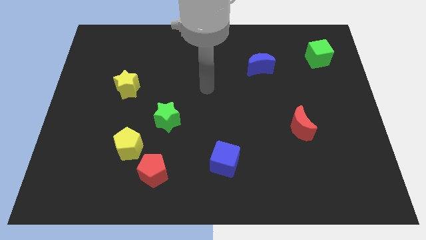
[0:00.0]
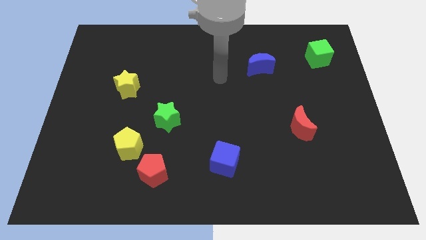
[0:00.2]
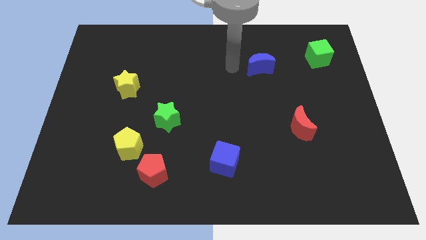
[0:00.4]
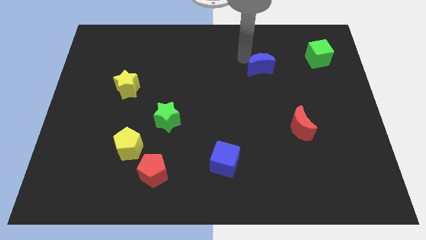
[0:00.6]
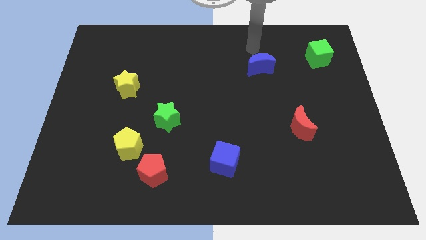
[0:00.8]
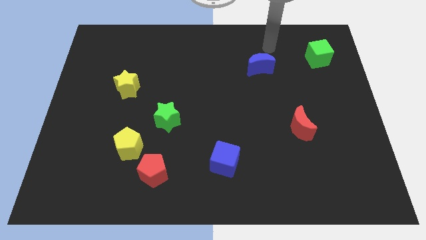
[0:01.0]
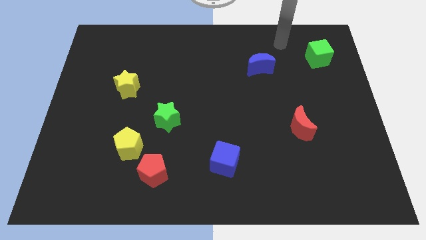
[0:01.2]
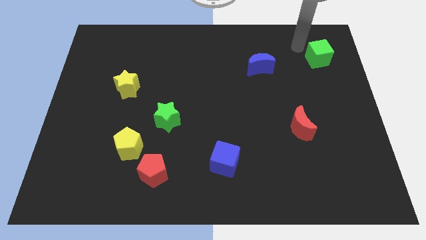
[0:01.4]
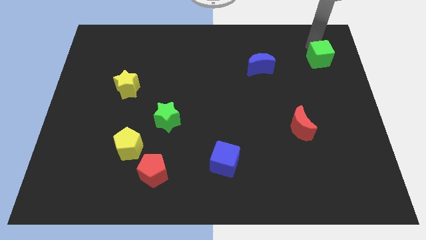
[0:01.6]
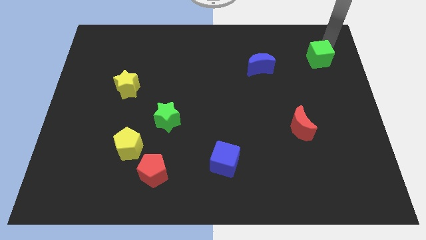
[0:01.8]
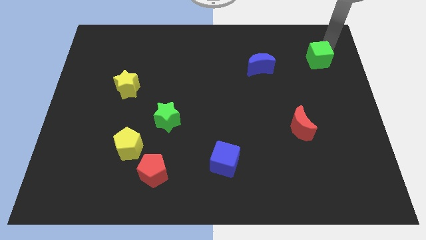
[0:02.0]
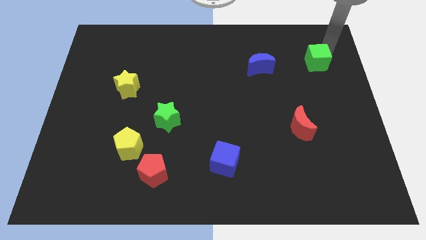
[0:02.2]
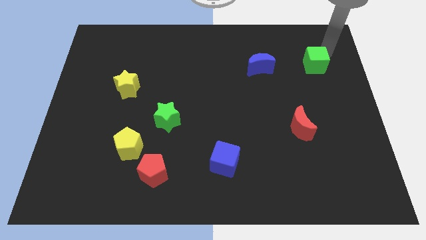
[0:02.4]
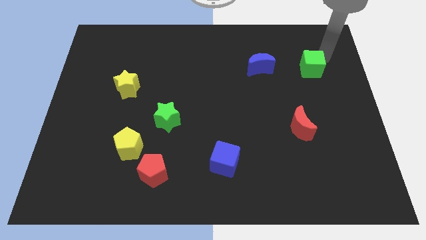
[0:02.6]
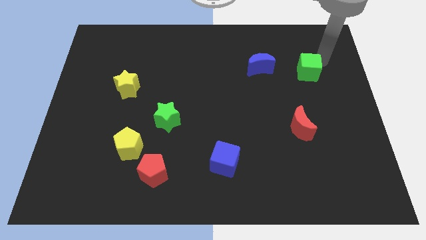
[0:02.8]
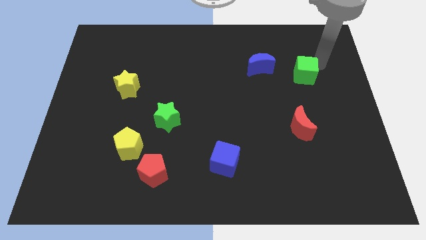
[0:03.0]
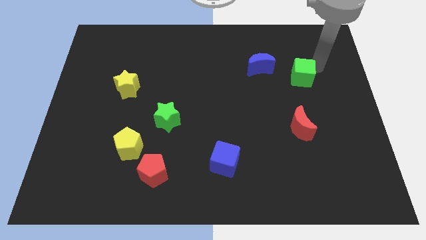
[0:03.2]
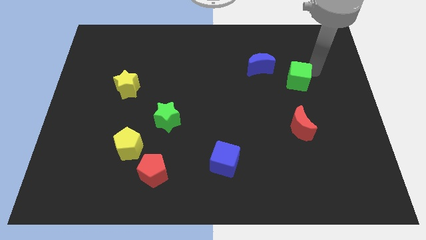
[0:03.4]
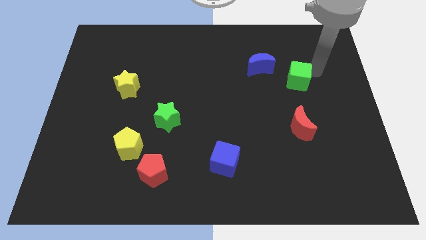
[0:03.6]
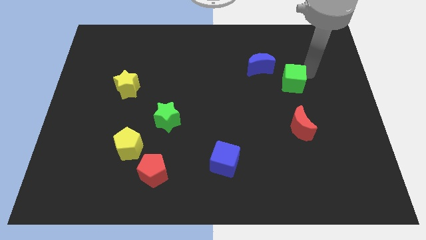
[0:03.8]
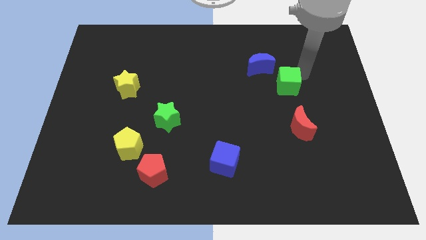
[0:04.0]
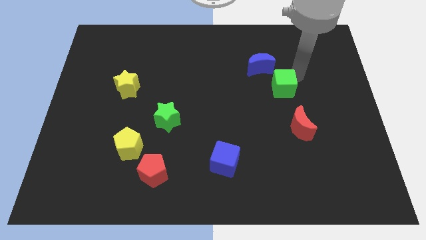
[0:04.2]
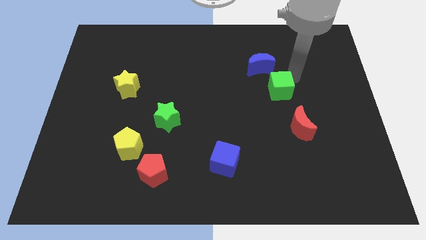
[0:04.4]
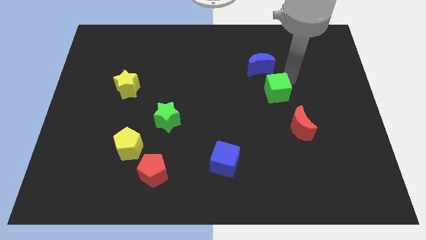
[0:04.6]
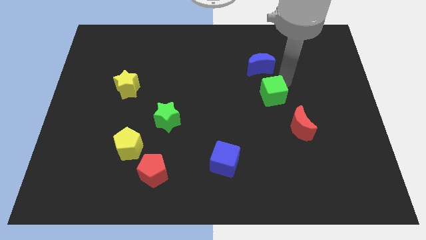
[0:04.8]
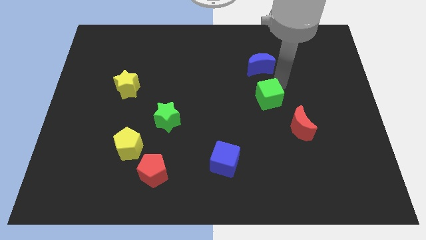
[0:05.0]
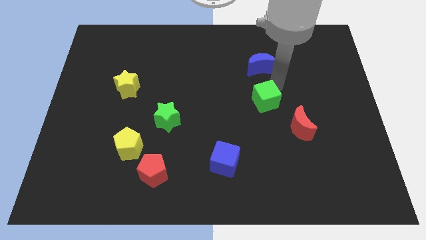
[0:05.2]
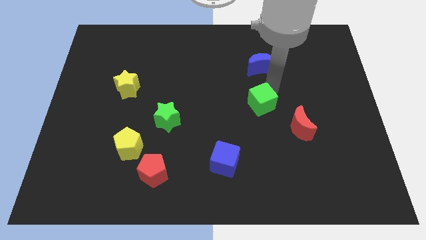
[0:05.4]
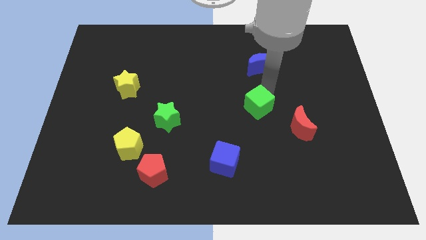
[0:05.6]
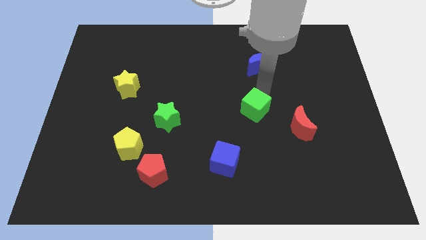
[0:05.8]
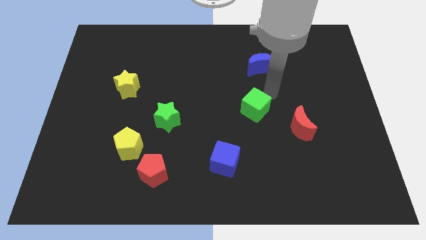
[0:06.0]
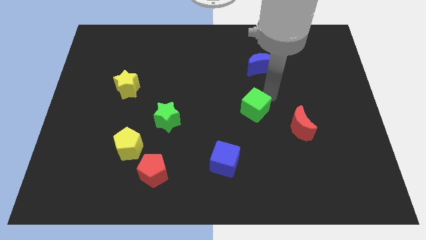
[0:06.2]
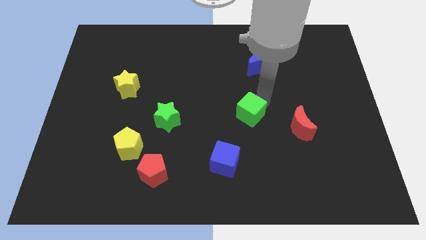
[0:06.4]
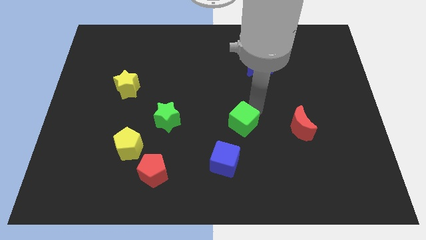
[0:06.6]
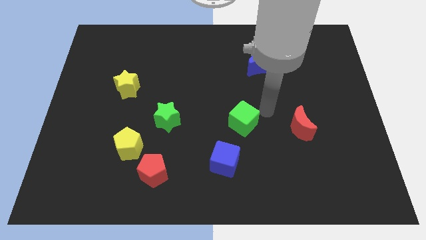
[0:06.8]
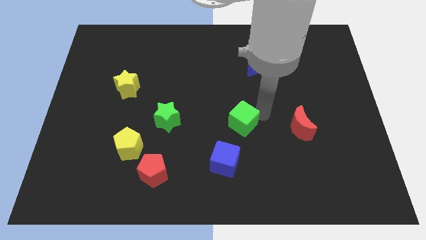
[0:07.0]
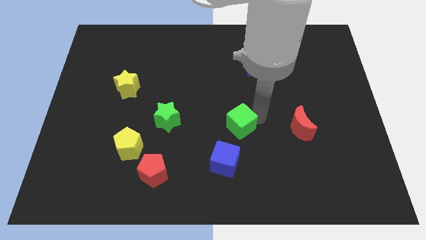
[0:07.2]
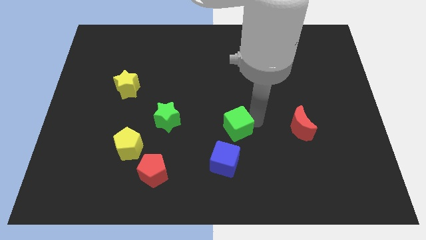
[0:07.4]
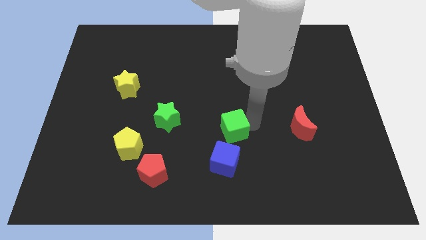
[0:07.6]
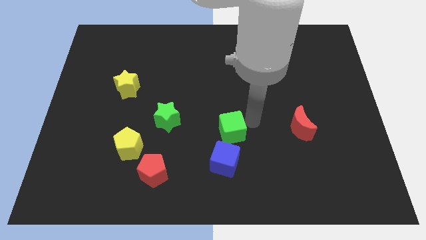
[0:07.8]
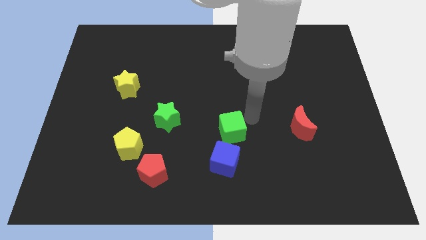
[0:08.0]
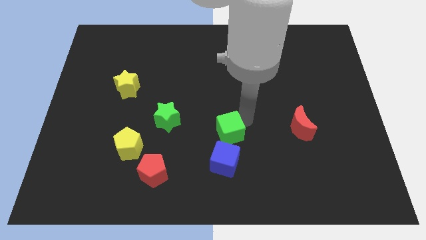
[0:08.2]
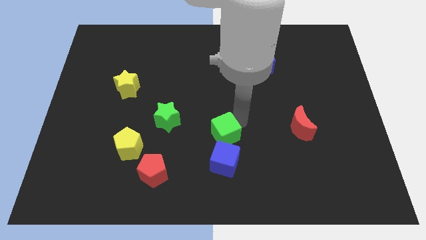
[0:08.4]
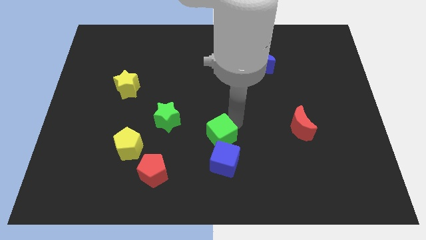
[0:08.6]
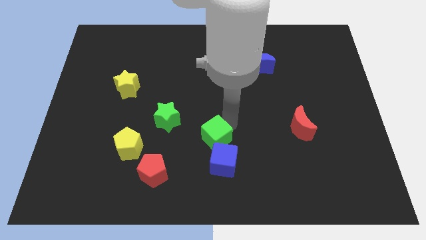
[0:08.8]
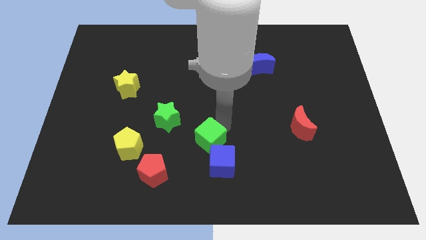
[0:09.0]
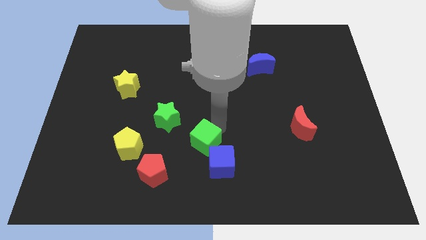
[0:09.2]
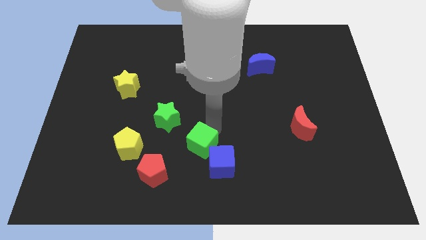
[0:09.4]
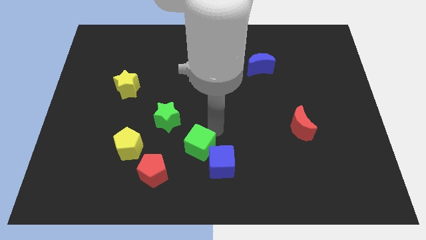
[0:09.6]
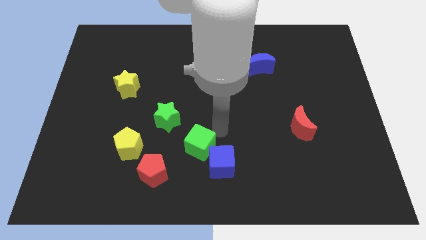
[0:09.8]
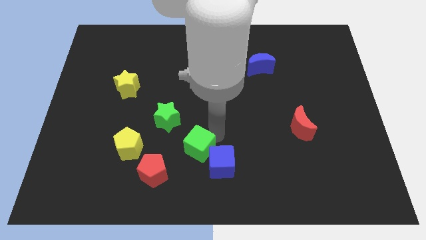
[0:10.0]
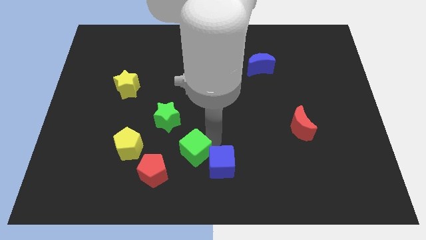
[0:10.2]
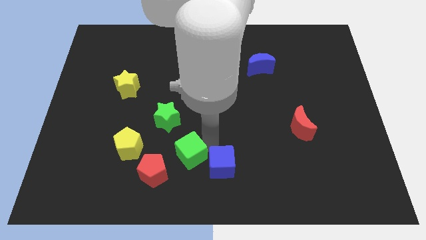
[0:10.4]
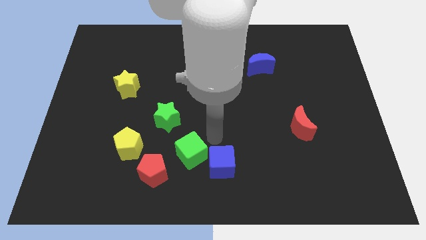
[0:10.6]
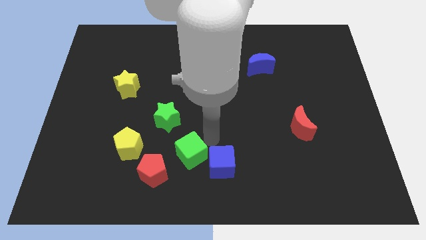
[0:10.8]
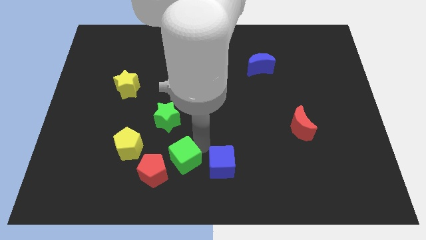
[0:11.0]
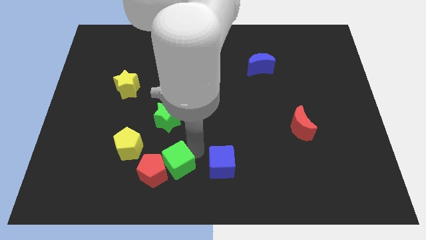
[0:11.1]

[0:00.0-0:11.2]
move the green cube next to the red pentagon

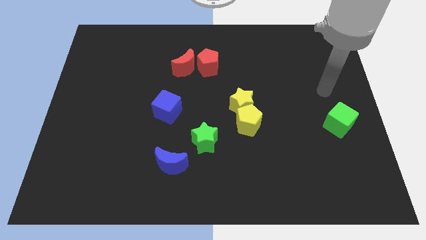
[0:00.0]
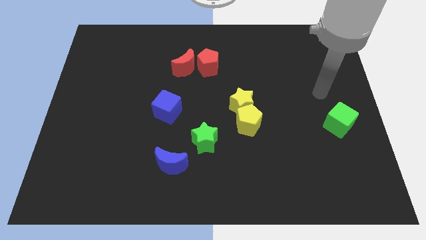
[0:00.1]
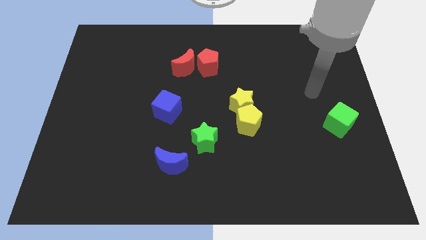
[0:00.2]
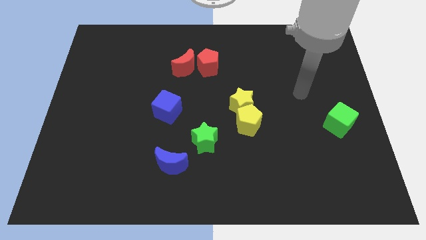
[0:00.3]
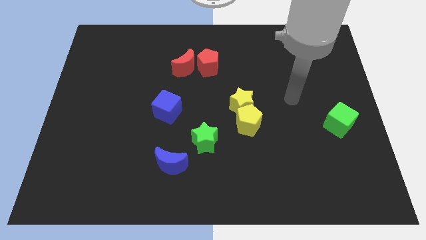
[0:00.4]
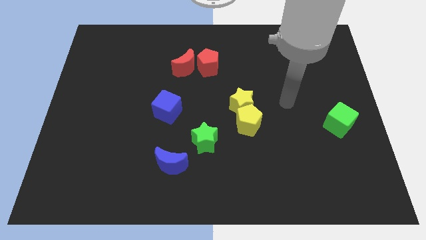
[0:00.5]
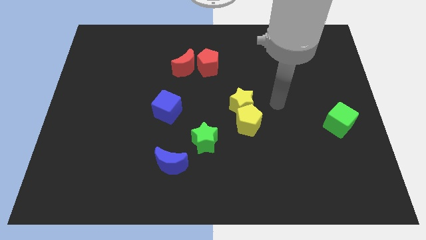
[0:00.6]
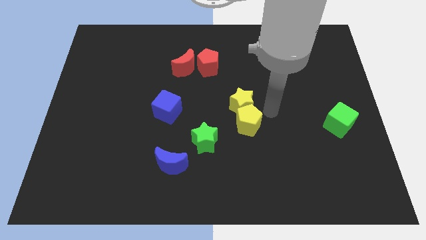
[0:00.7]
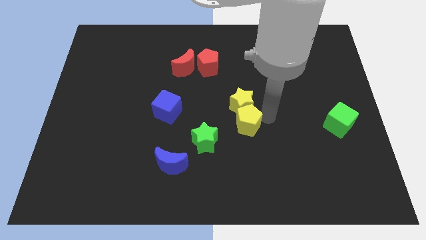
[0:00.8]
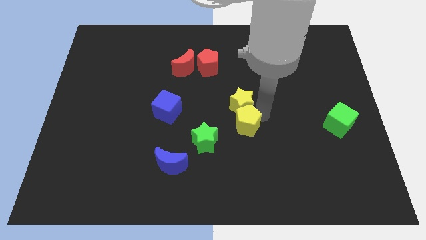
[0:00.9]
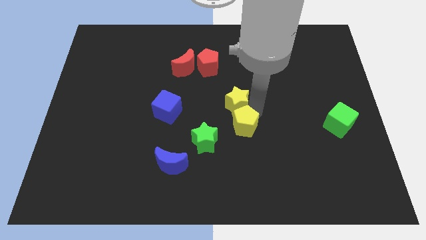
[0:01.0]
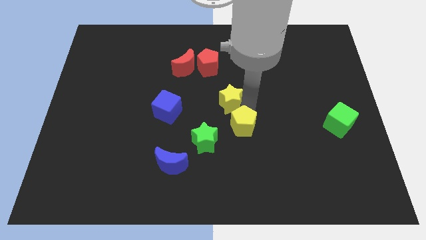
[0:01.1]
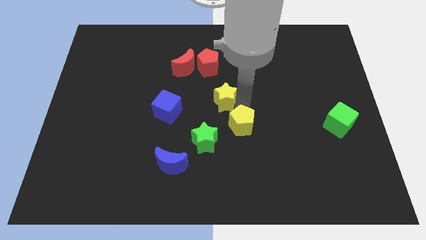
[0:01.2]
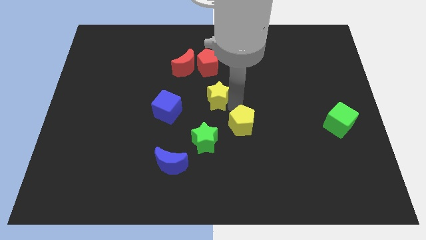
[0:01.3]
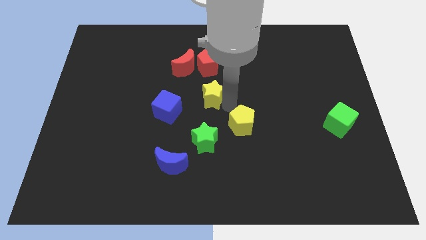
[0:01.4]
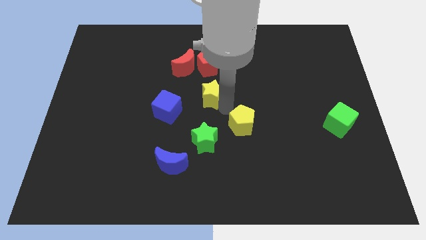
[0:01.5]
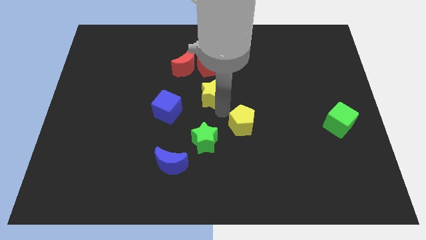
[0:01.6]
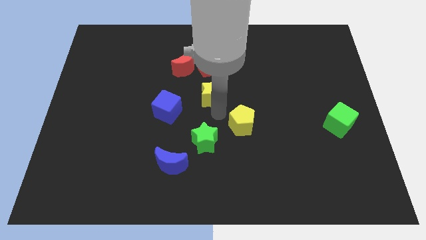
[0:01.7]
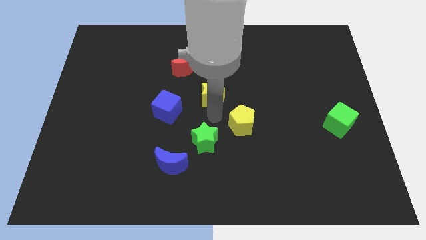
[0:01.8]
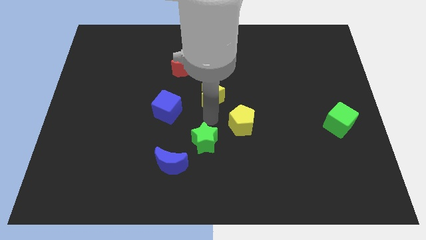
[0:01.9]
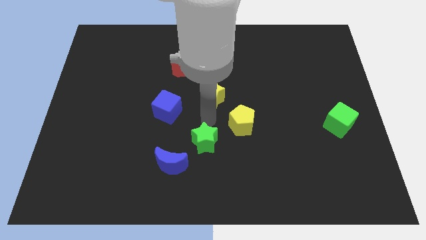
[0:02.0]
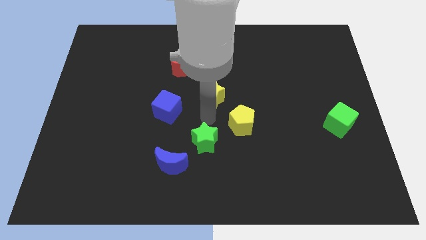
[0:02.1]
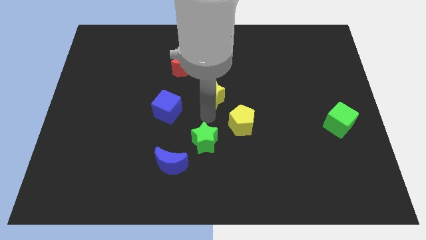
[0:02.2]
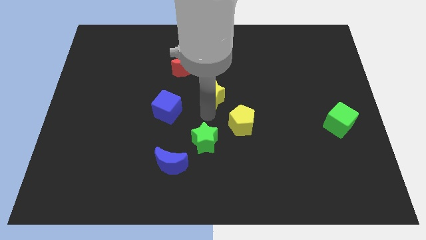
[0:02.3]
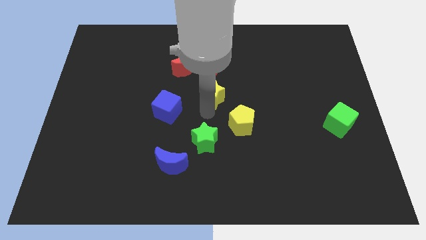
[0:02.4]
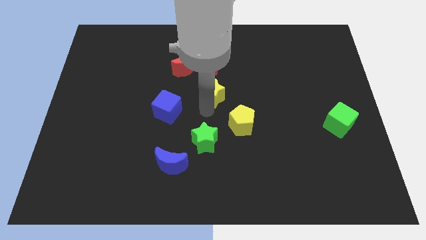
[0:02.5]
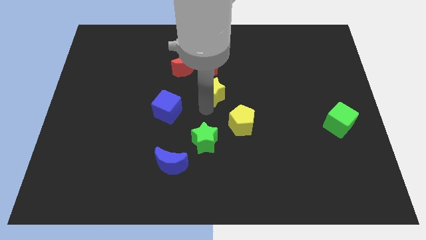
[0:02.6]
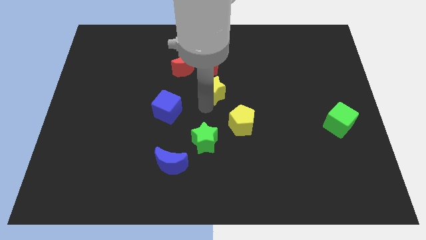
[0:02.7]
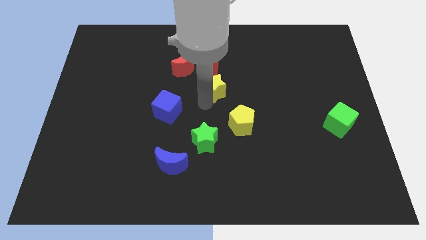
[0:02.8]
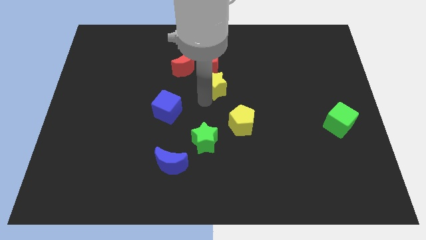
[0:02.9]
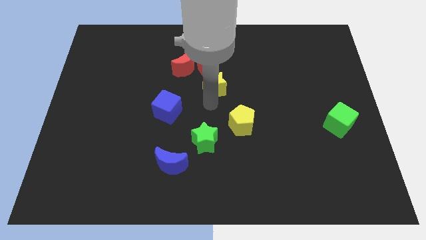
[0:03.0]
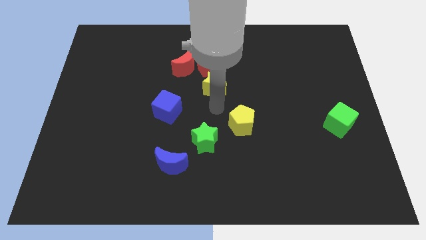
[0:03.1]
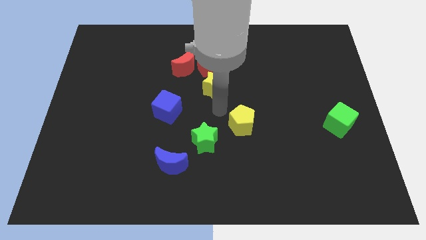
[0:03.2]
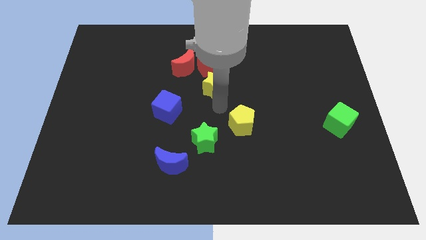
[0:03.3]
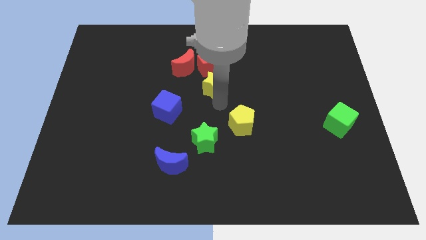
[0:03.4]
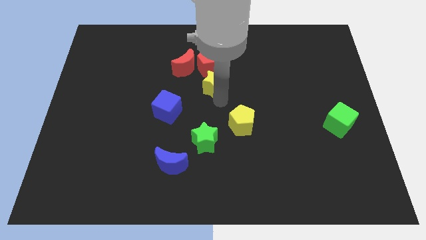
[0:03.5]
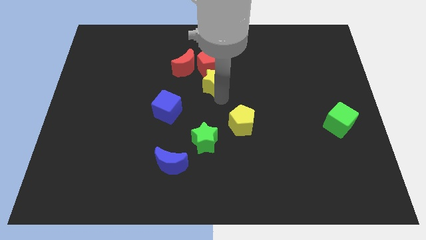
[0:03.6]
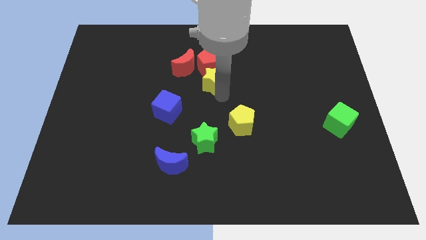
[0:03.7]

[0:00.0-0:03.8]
slide the yellow star close to the red pentagon
